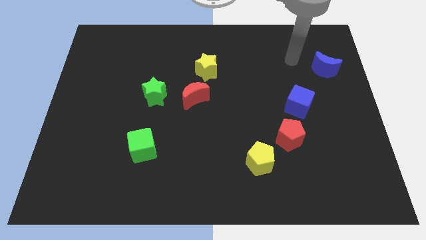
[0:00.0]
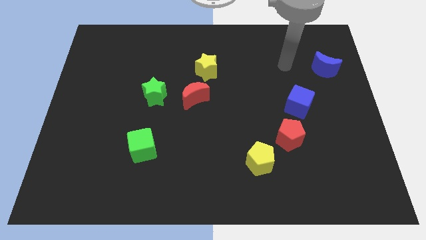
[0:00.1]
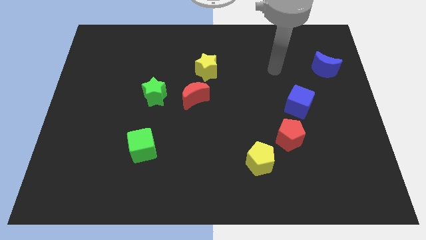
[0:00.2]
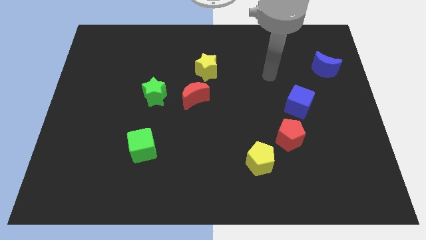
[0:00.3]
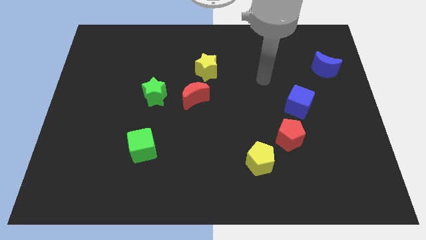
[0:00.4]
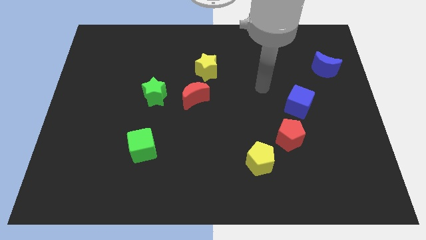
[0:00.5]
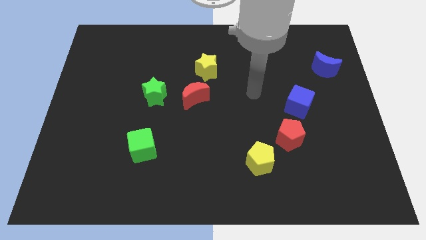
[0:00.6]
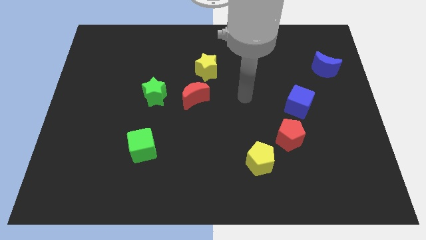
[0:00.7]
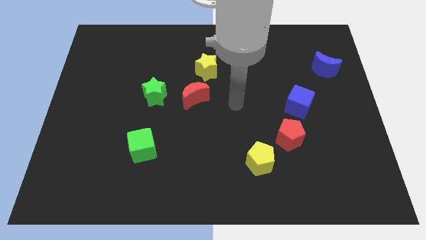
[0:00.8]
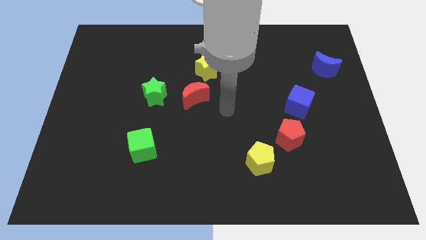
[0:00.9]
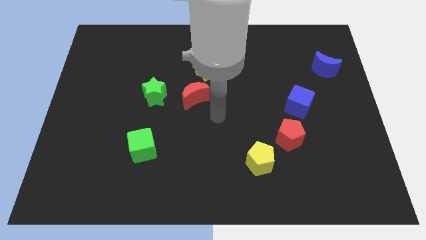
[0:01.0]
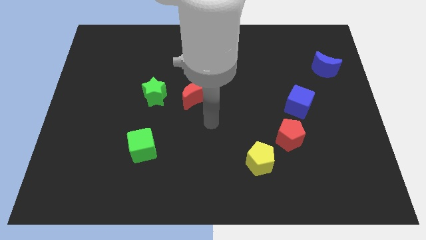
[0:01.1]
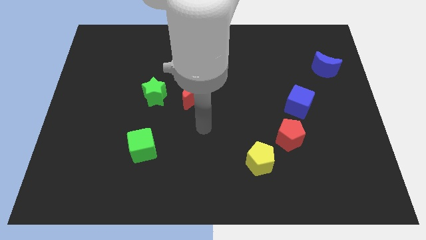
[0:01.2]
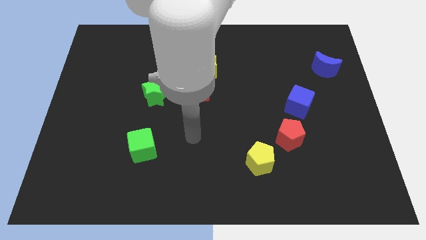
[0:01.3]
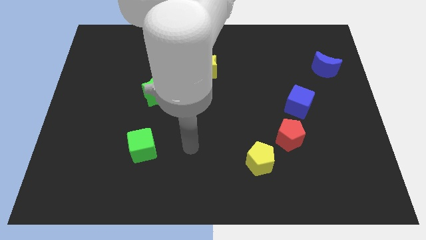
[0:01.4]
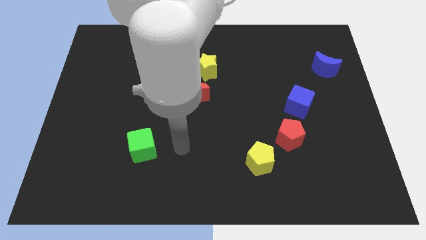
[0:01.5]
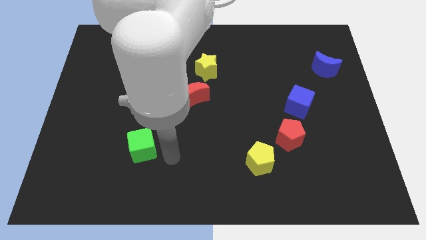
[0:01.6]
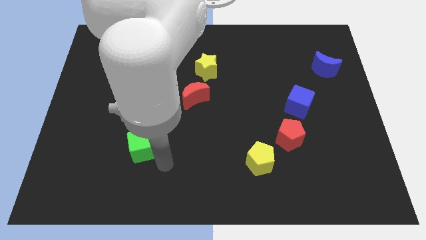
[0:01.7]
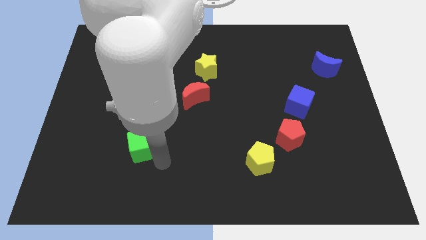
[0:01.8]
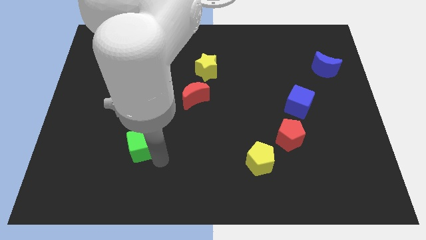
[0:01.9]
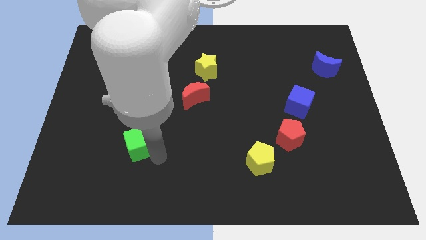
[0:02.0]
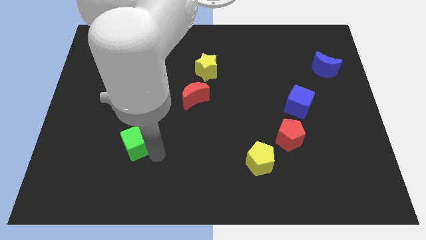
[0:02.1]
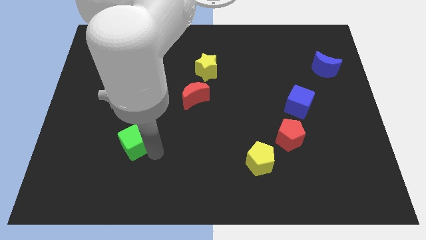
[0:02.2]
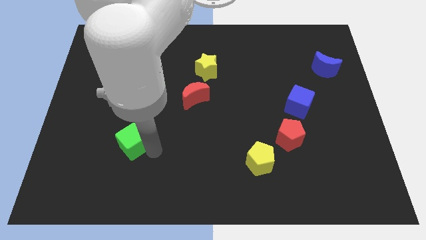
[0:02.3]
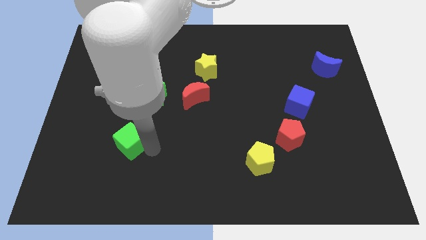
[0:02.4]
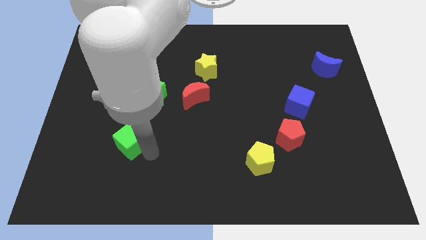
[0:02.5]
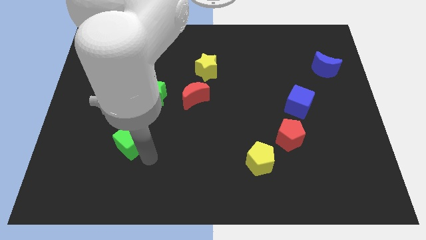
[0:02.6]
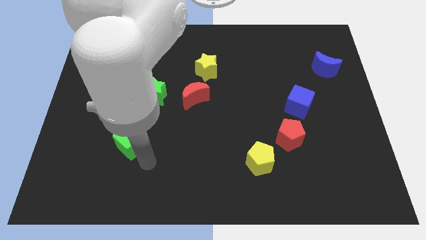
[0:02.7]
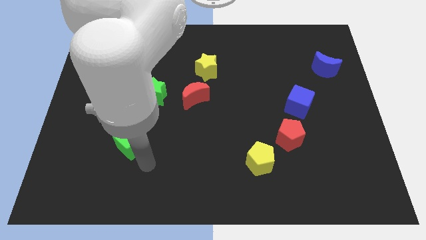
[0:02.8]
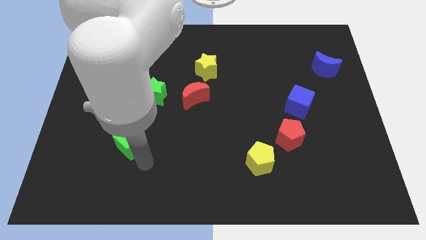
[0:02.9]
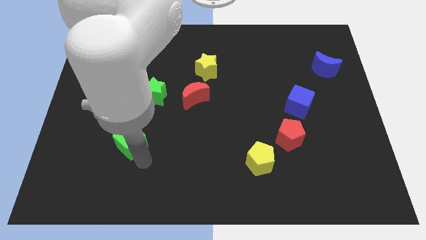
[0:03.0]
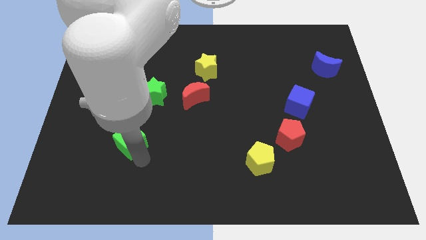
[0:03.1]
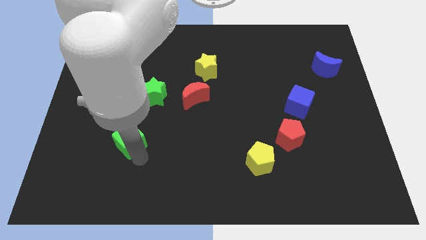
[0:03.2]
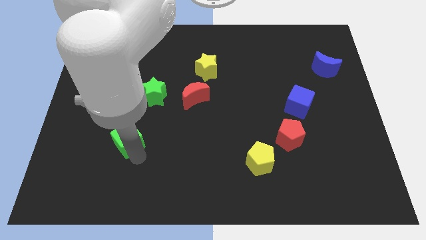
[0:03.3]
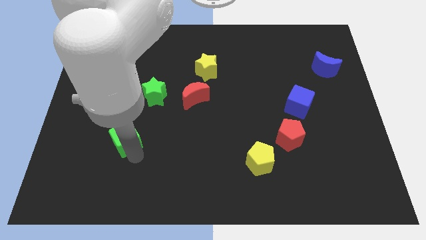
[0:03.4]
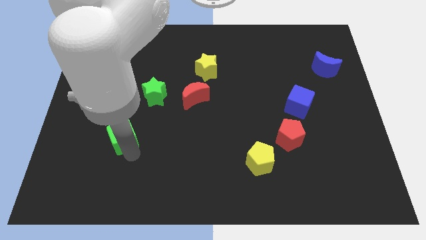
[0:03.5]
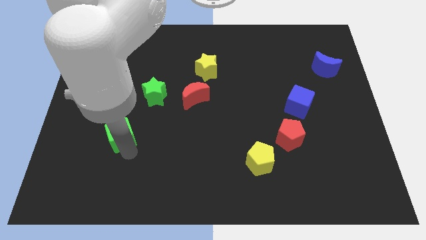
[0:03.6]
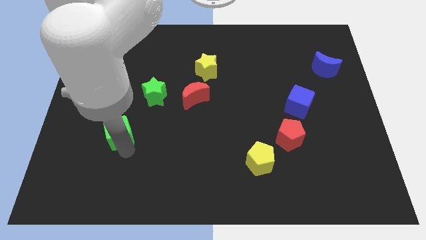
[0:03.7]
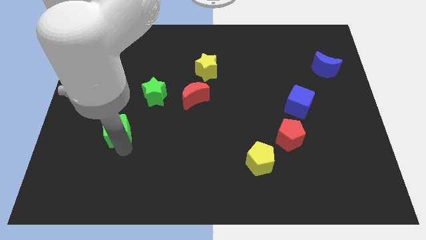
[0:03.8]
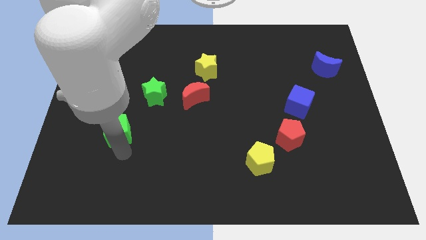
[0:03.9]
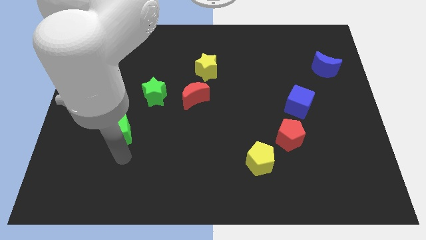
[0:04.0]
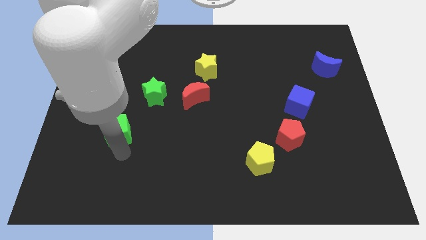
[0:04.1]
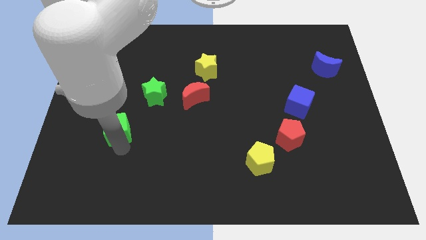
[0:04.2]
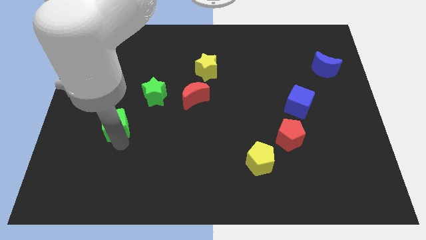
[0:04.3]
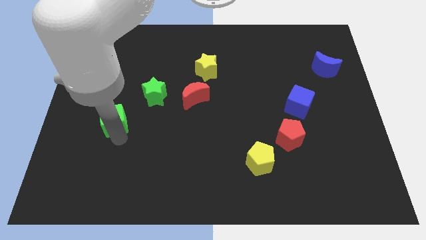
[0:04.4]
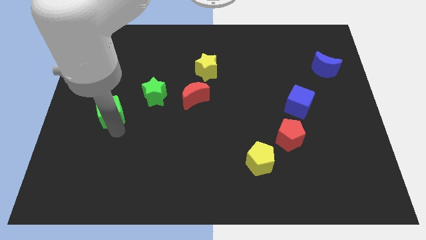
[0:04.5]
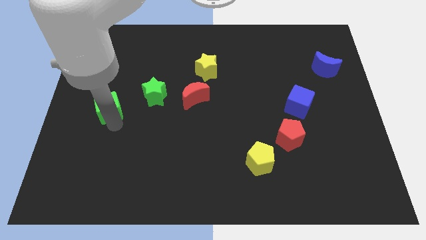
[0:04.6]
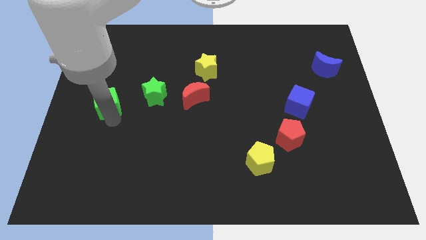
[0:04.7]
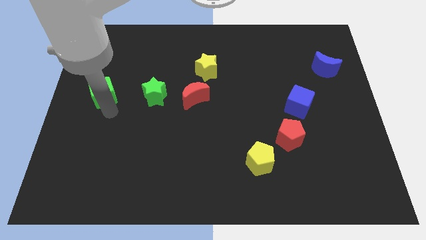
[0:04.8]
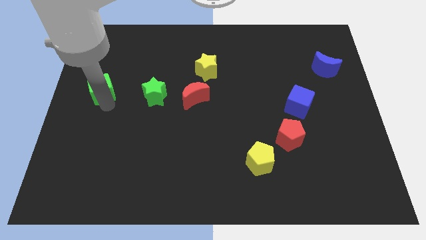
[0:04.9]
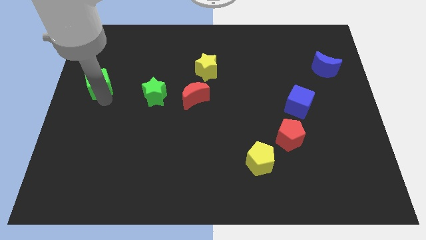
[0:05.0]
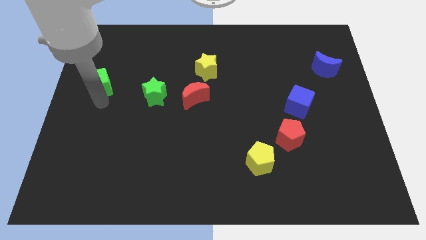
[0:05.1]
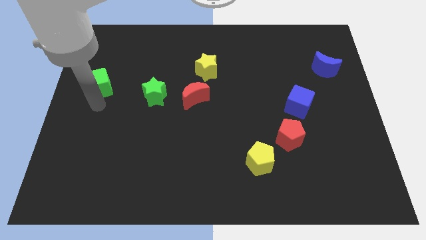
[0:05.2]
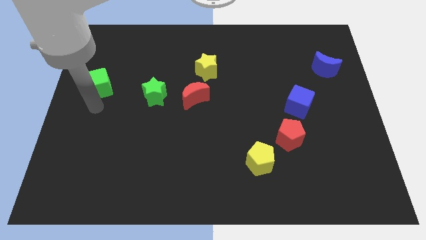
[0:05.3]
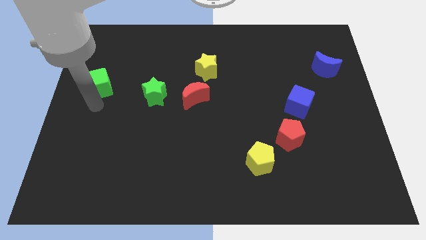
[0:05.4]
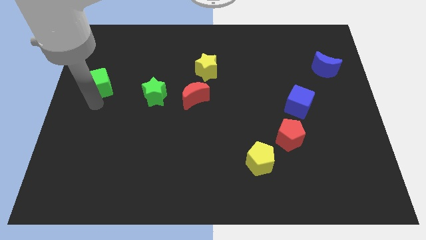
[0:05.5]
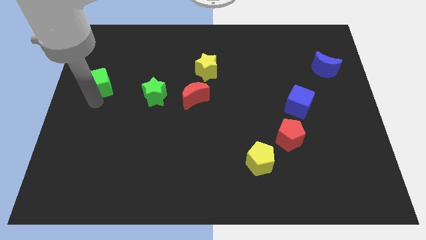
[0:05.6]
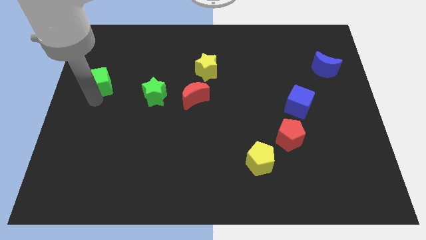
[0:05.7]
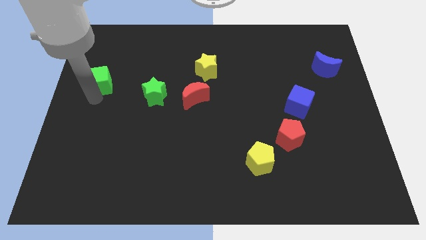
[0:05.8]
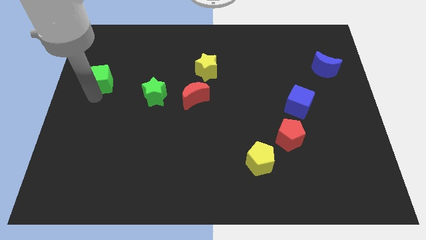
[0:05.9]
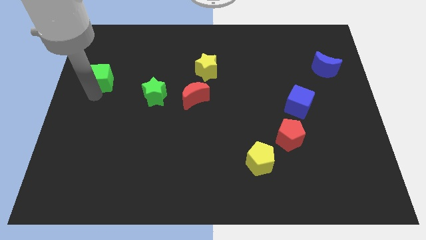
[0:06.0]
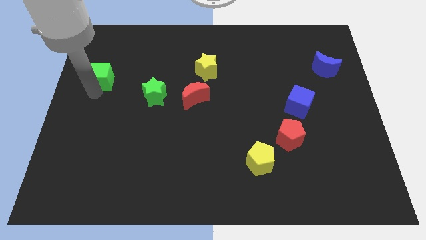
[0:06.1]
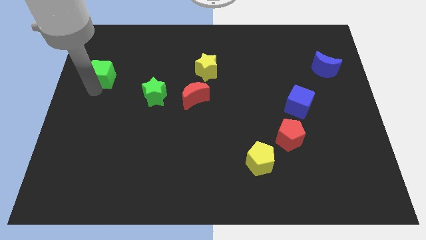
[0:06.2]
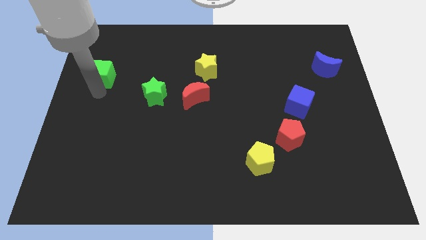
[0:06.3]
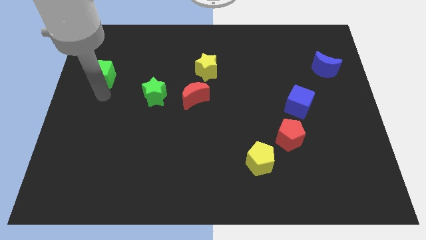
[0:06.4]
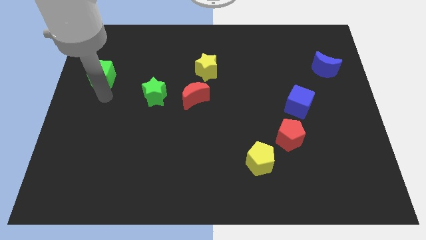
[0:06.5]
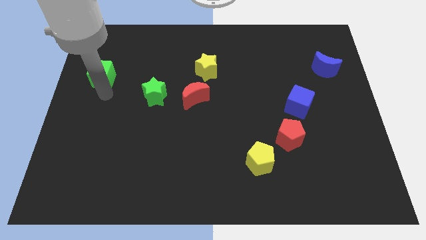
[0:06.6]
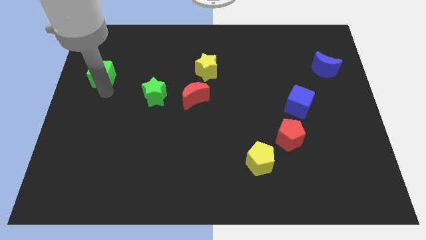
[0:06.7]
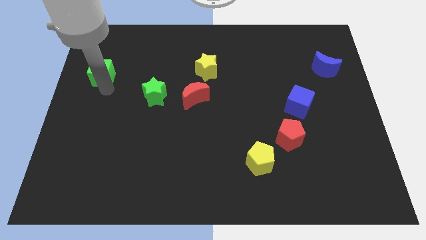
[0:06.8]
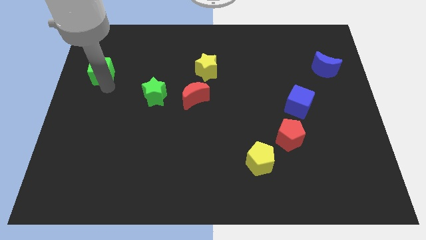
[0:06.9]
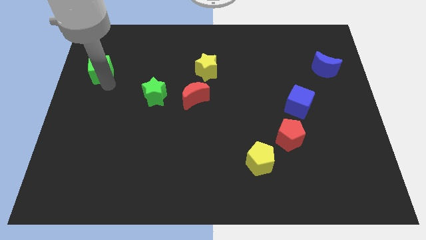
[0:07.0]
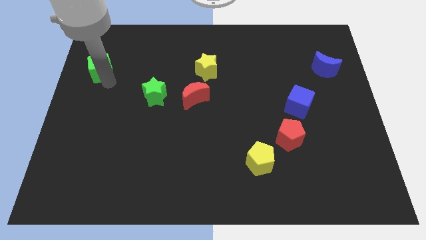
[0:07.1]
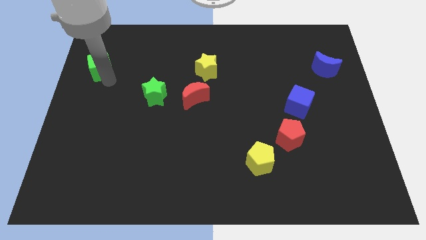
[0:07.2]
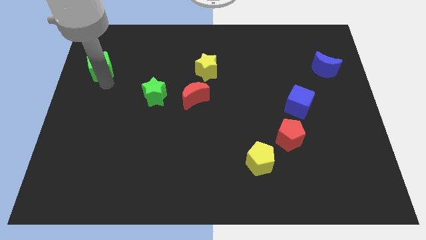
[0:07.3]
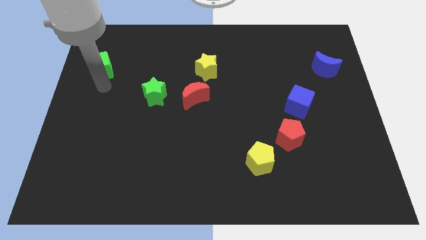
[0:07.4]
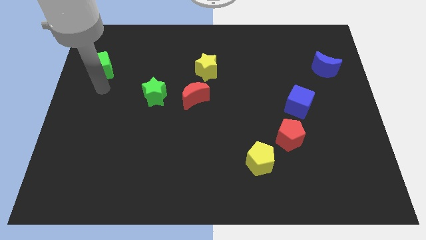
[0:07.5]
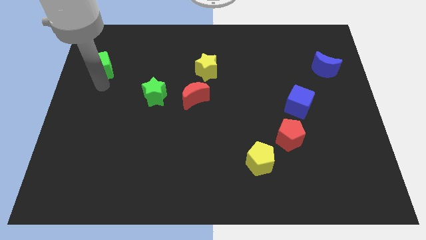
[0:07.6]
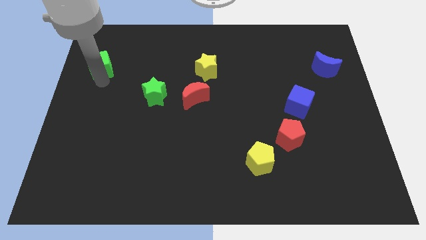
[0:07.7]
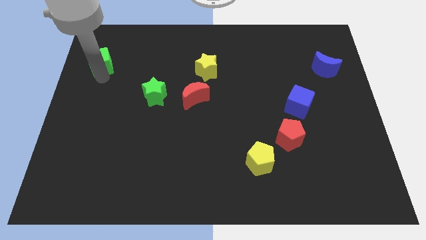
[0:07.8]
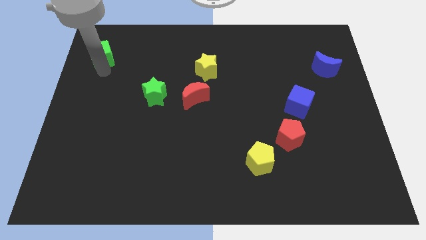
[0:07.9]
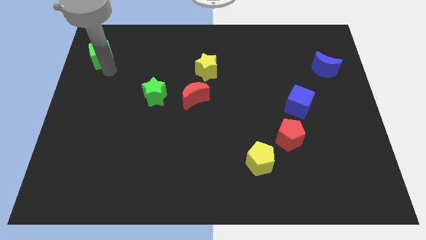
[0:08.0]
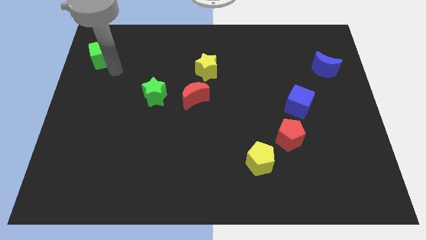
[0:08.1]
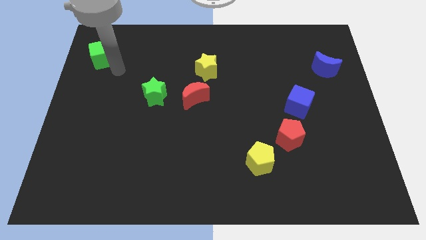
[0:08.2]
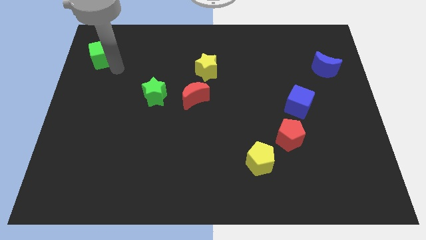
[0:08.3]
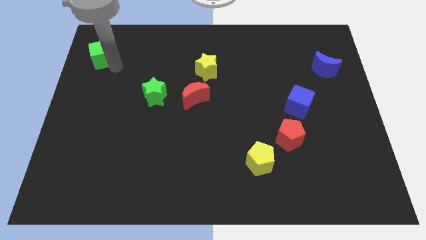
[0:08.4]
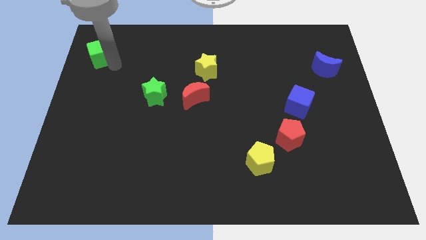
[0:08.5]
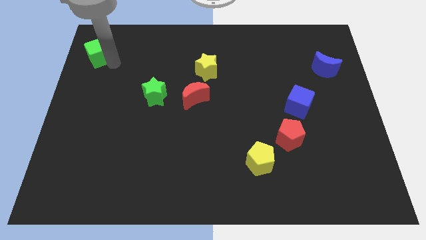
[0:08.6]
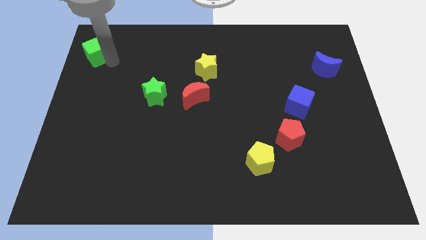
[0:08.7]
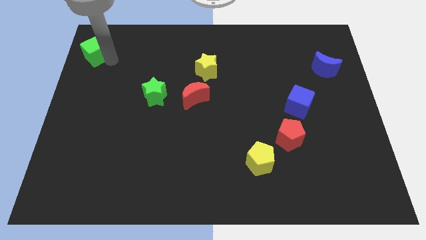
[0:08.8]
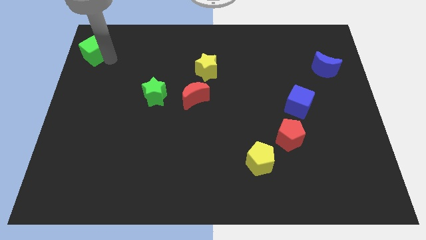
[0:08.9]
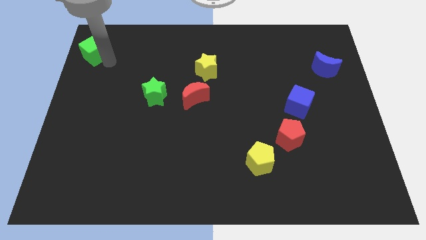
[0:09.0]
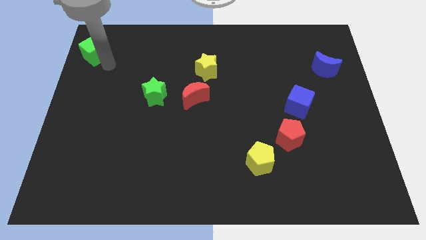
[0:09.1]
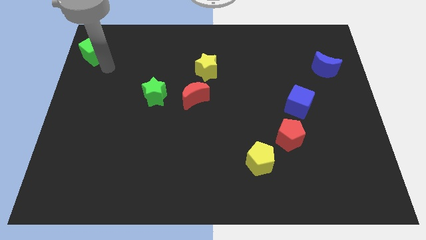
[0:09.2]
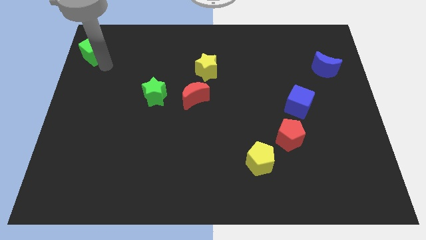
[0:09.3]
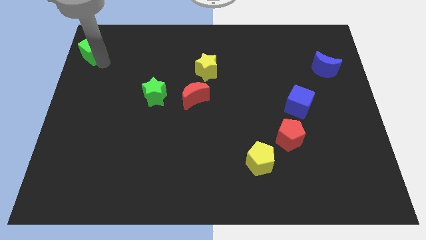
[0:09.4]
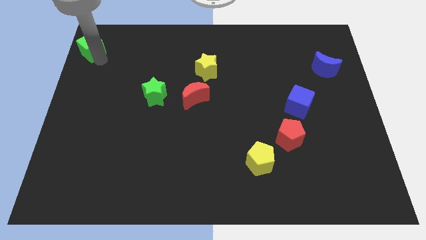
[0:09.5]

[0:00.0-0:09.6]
put the green cube to the upper left corner
